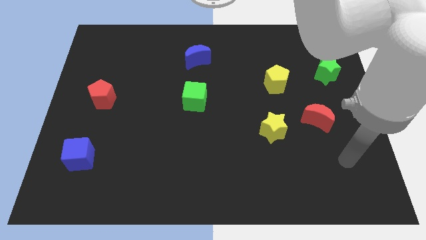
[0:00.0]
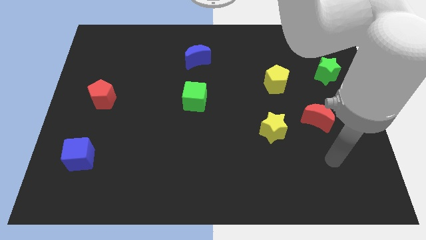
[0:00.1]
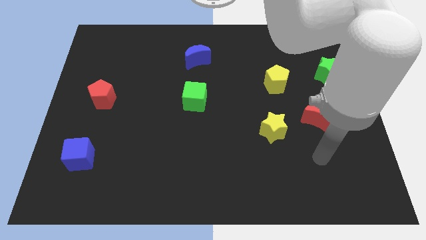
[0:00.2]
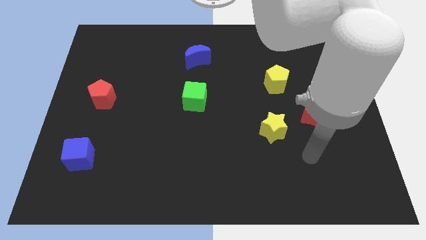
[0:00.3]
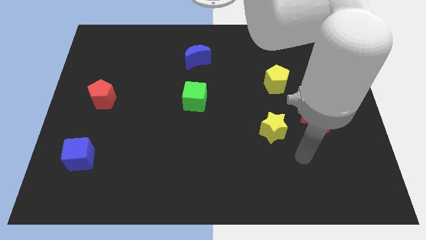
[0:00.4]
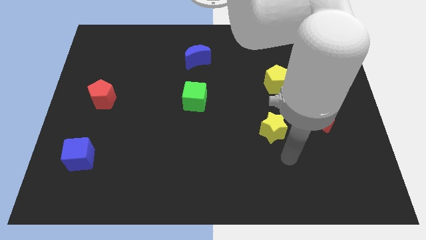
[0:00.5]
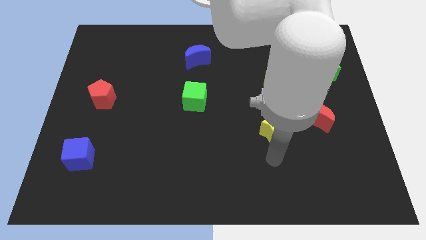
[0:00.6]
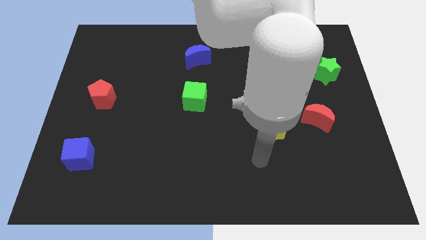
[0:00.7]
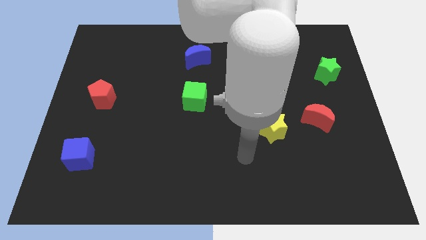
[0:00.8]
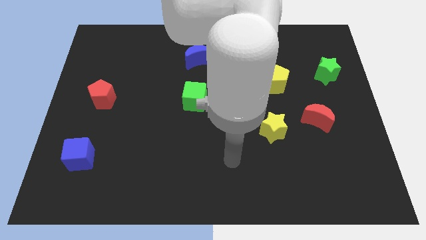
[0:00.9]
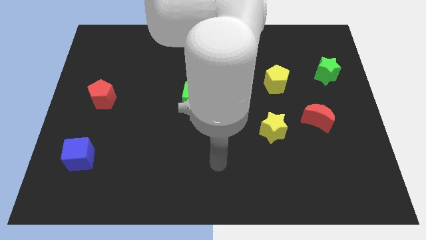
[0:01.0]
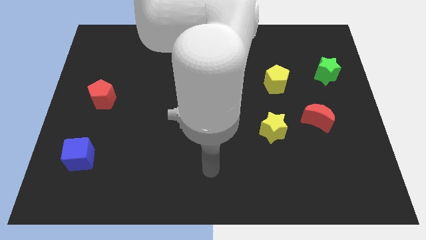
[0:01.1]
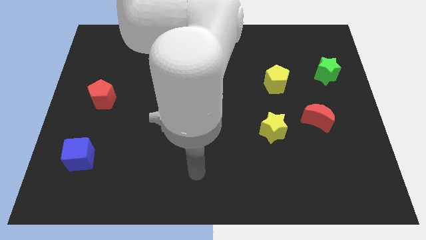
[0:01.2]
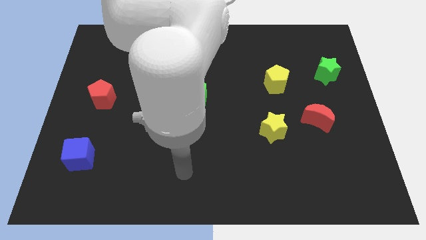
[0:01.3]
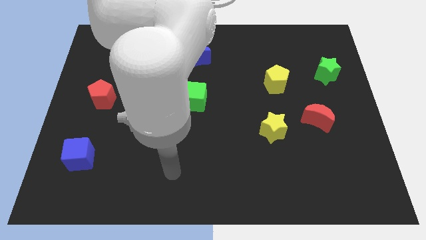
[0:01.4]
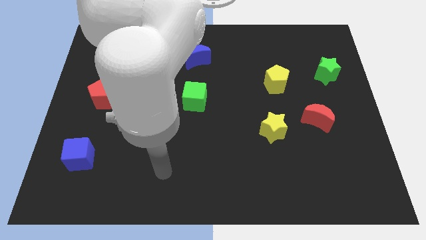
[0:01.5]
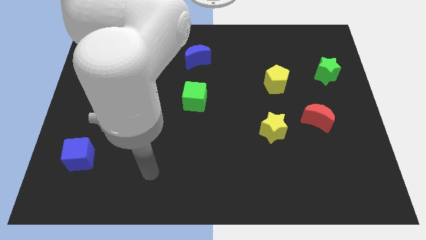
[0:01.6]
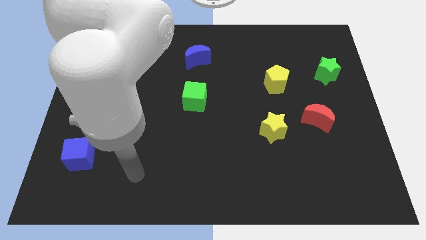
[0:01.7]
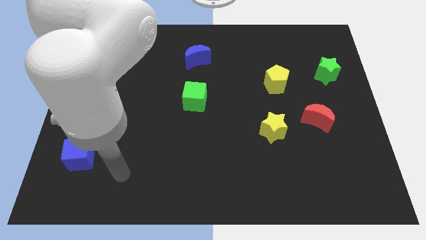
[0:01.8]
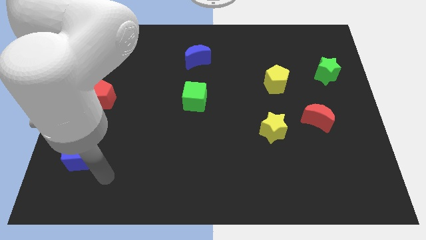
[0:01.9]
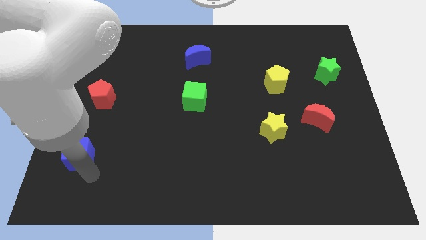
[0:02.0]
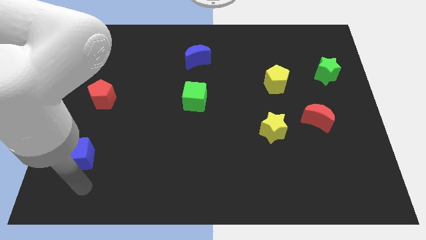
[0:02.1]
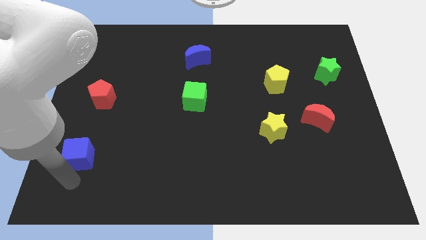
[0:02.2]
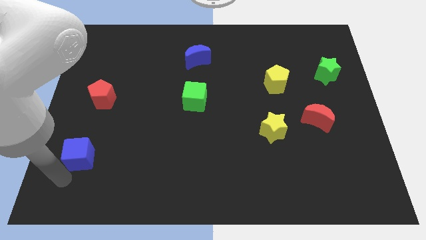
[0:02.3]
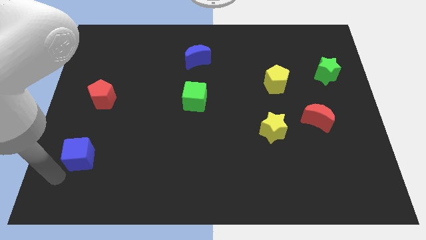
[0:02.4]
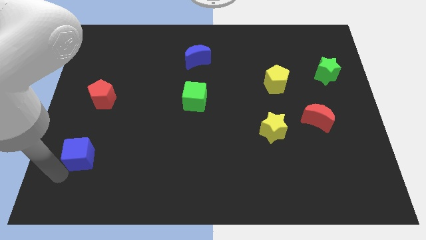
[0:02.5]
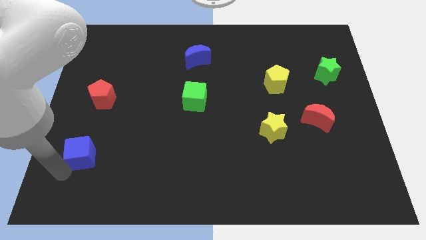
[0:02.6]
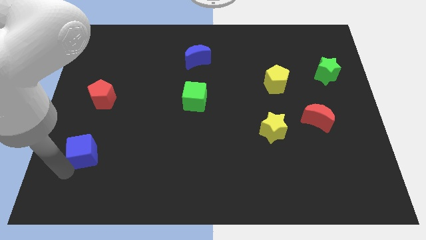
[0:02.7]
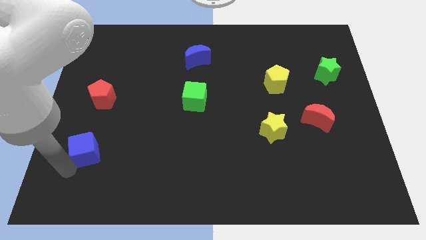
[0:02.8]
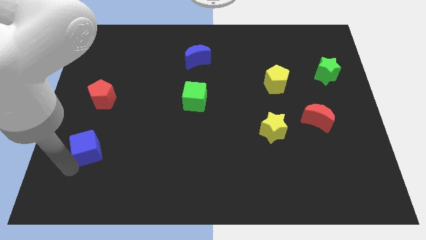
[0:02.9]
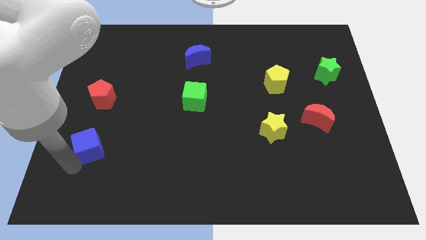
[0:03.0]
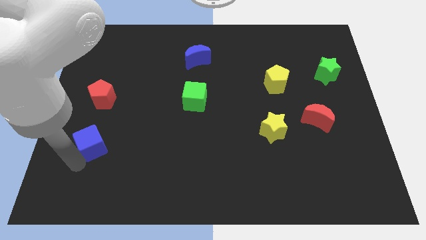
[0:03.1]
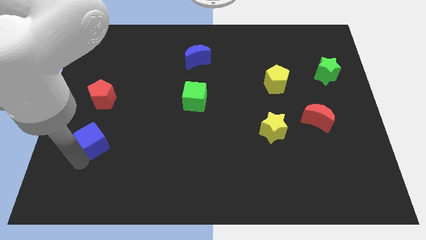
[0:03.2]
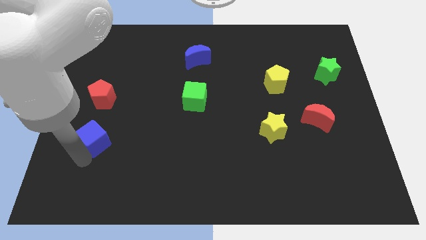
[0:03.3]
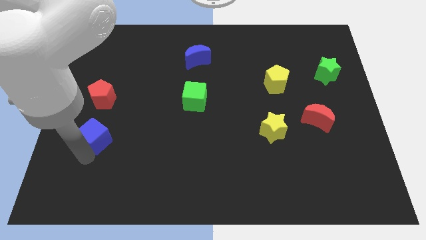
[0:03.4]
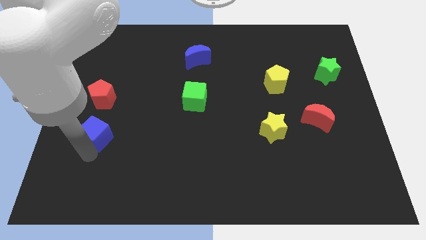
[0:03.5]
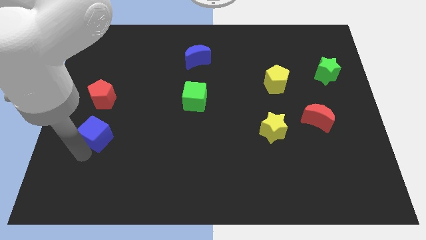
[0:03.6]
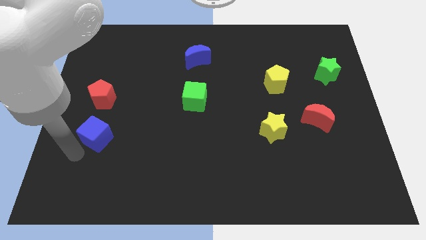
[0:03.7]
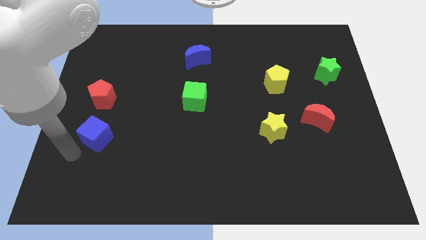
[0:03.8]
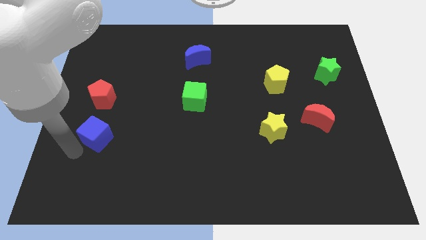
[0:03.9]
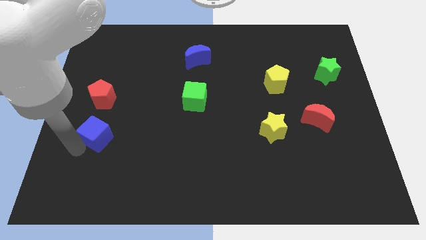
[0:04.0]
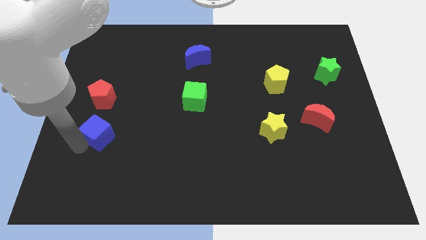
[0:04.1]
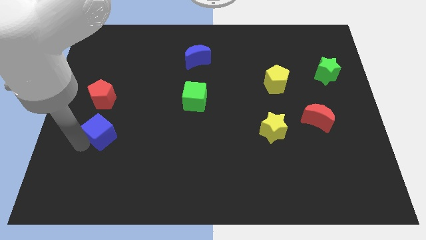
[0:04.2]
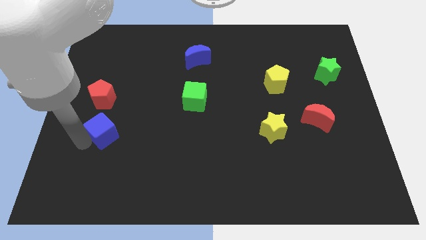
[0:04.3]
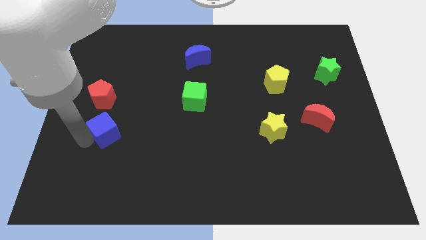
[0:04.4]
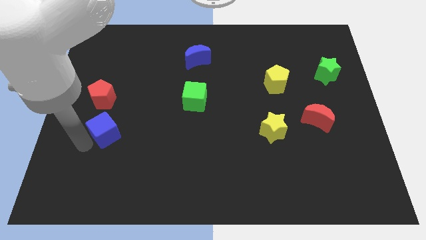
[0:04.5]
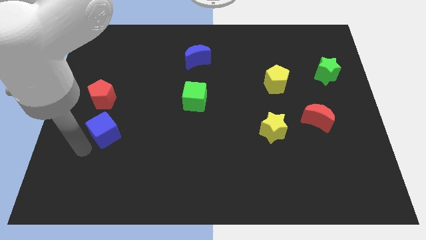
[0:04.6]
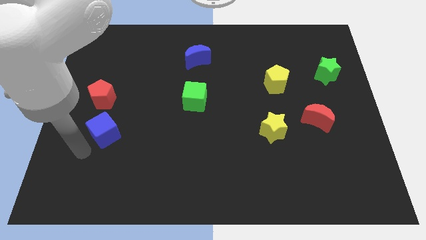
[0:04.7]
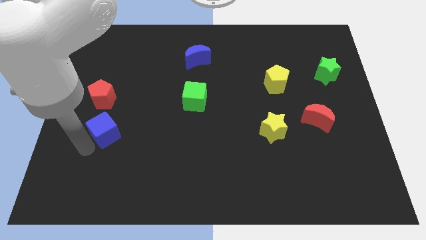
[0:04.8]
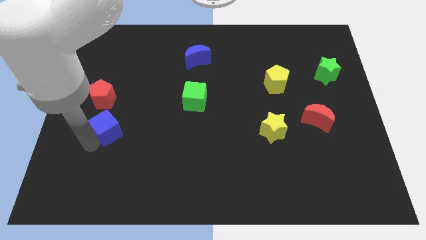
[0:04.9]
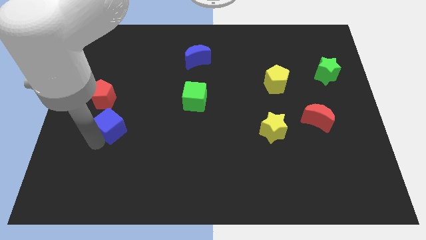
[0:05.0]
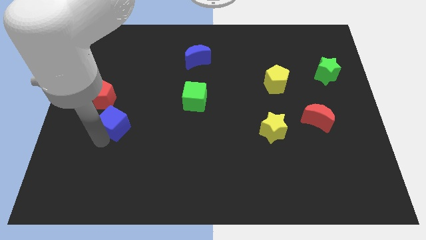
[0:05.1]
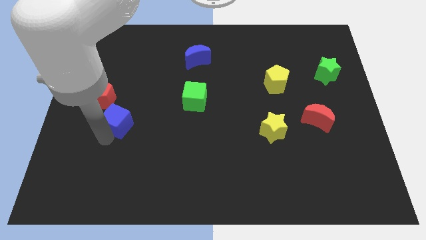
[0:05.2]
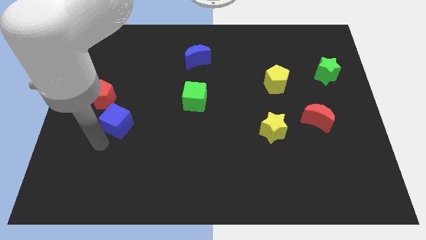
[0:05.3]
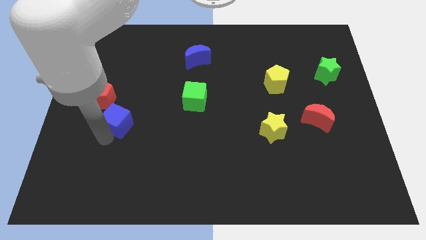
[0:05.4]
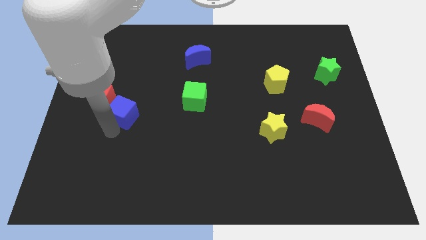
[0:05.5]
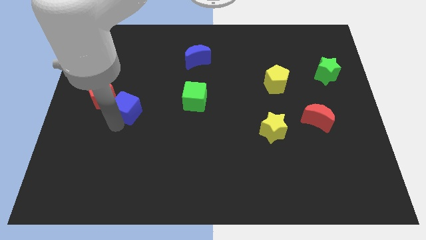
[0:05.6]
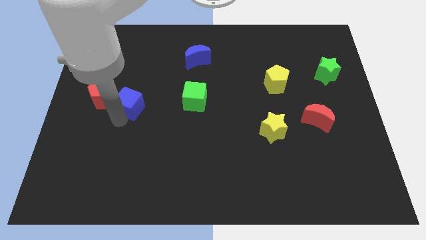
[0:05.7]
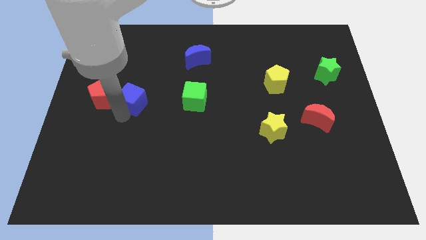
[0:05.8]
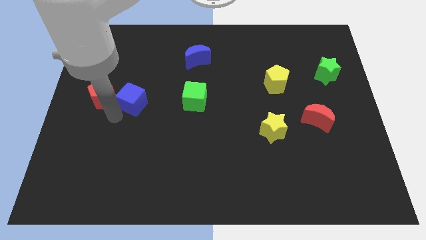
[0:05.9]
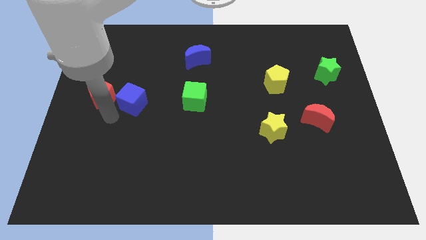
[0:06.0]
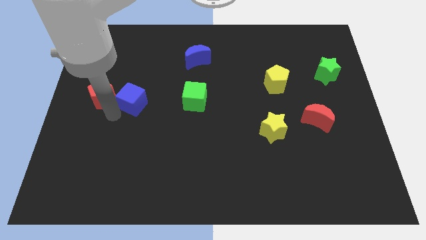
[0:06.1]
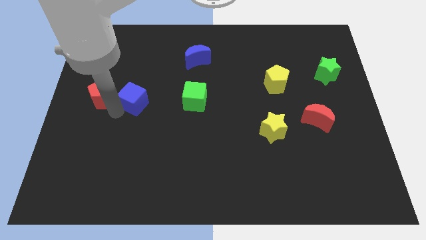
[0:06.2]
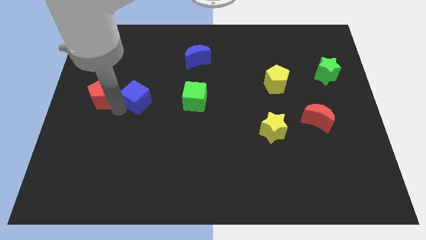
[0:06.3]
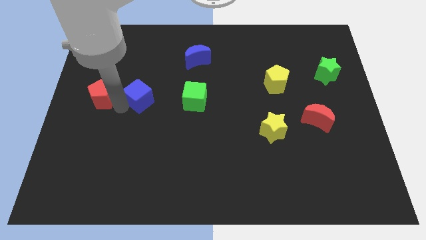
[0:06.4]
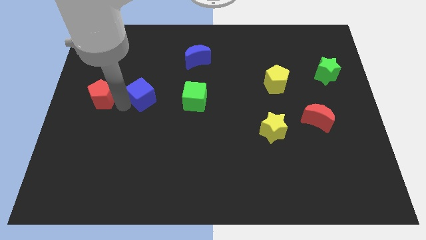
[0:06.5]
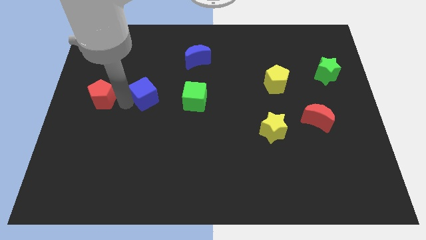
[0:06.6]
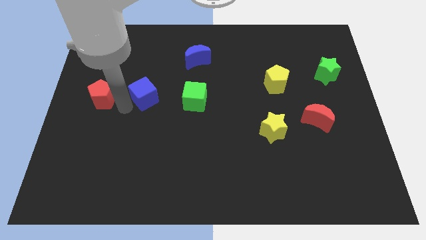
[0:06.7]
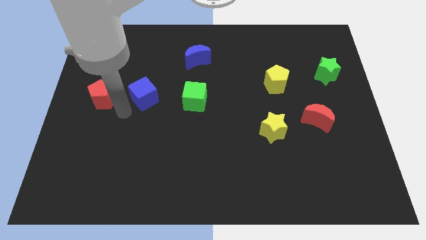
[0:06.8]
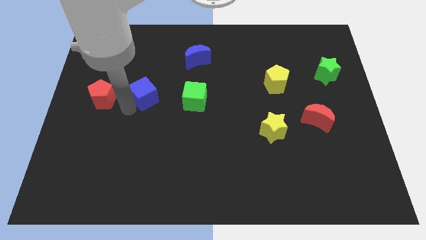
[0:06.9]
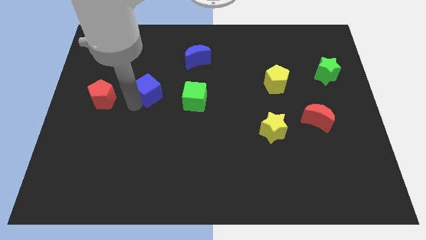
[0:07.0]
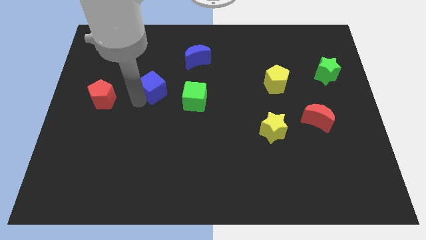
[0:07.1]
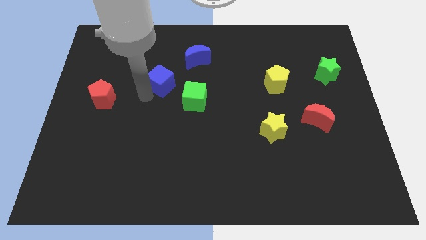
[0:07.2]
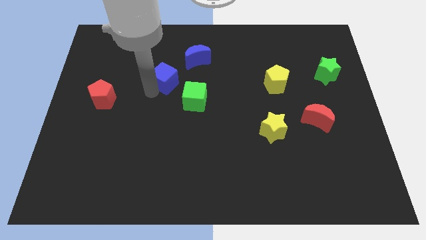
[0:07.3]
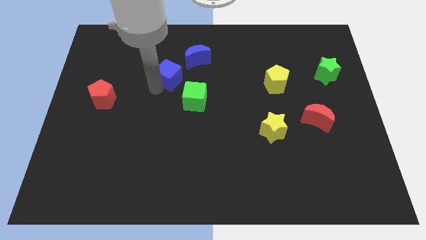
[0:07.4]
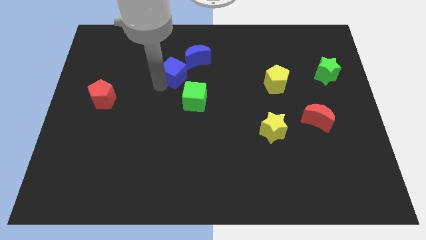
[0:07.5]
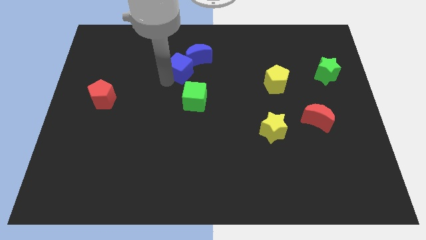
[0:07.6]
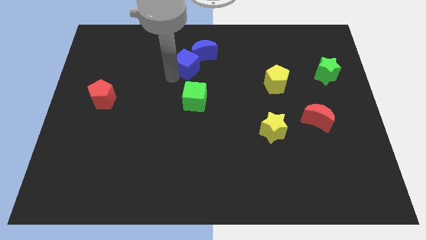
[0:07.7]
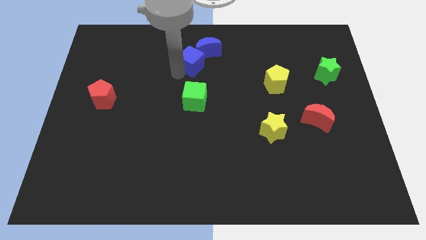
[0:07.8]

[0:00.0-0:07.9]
put the blue cube next to the blue moon
